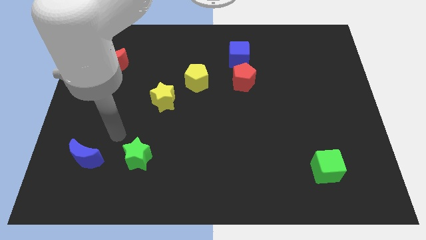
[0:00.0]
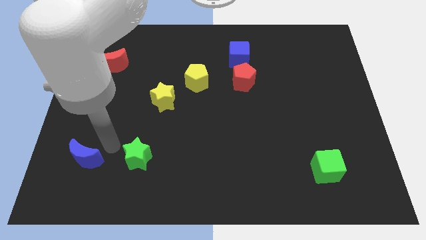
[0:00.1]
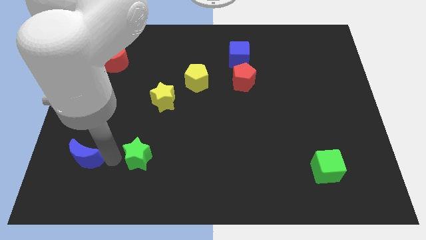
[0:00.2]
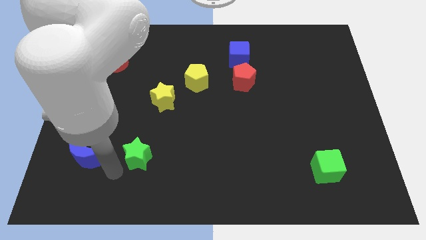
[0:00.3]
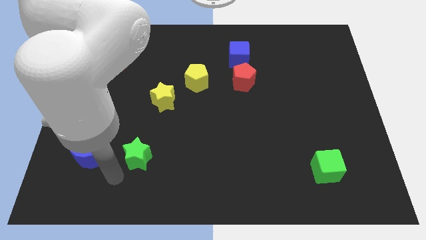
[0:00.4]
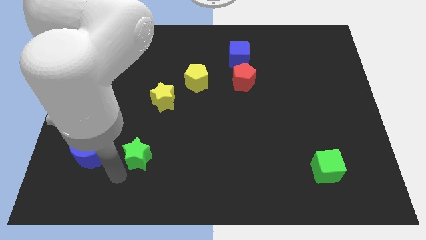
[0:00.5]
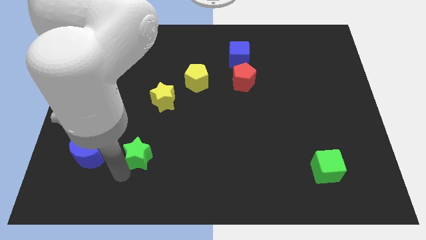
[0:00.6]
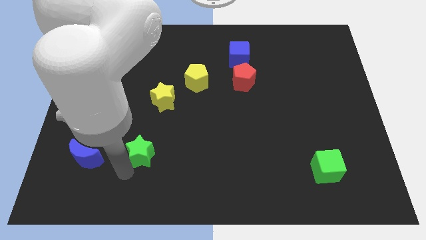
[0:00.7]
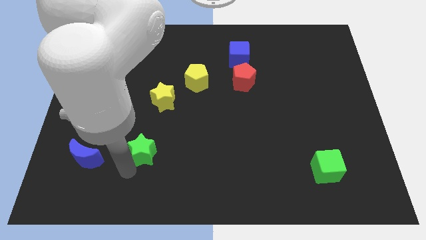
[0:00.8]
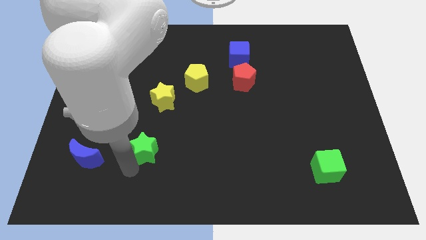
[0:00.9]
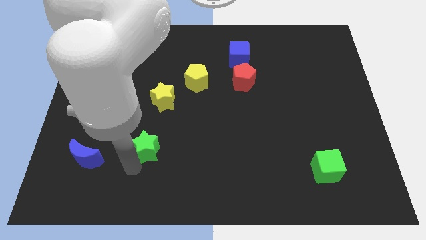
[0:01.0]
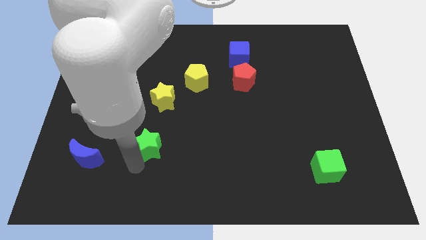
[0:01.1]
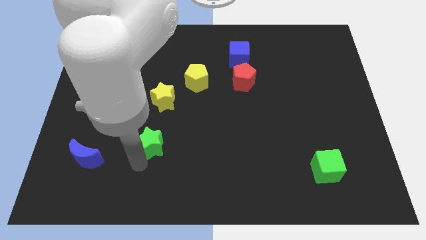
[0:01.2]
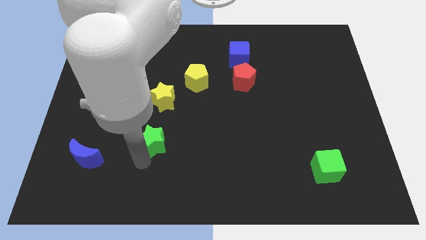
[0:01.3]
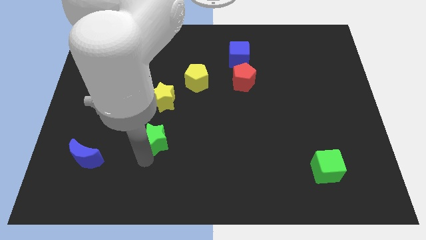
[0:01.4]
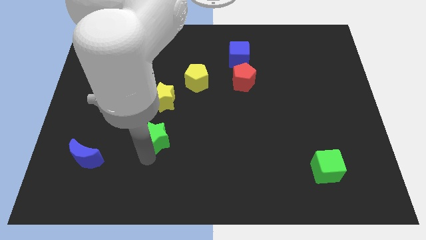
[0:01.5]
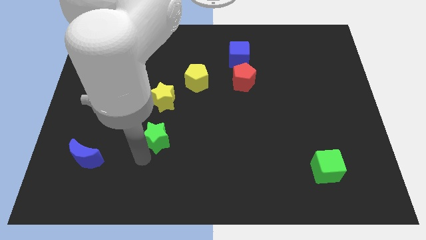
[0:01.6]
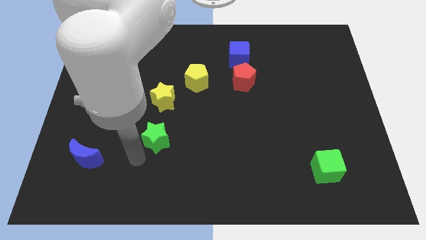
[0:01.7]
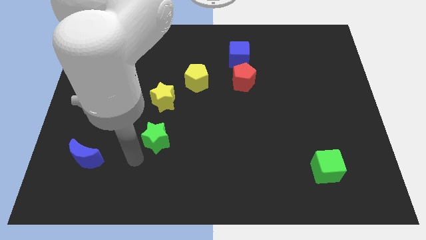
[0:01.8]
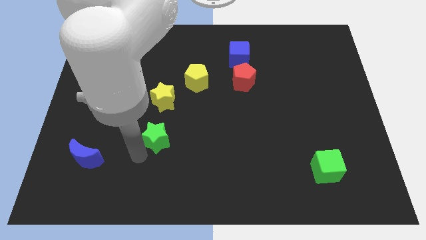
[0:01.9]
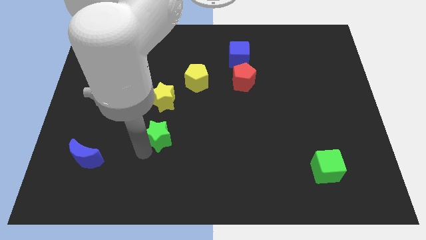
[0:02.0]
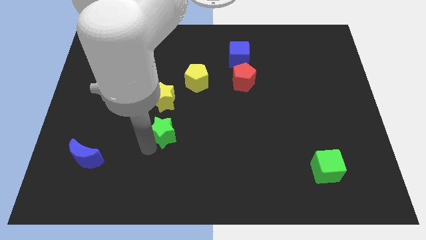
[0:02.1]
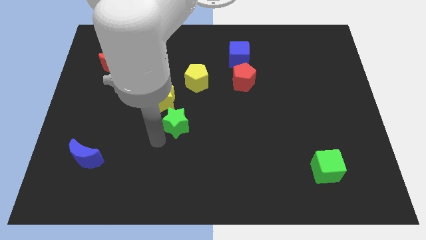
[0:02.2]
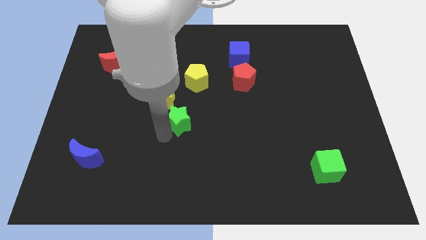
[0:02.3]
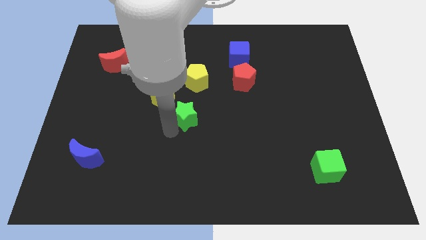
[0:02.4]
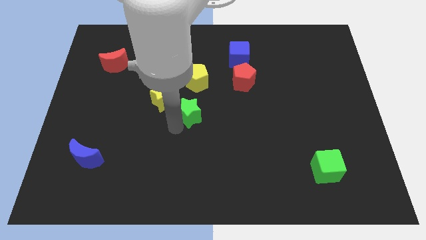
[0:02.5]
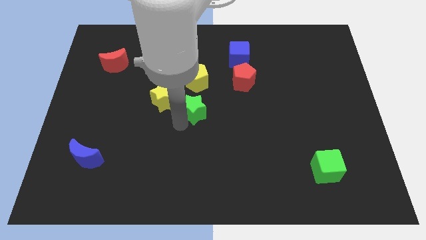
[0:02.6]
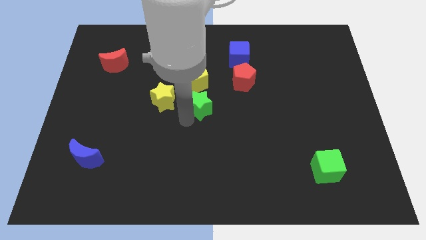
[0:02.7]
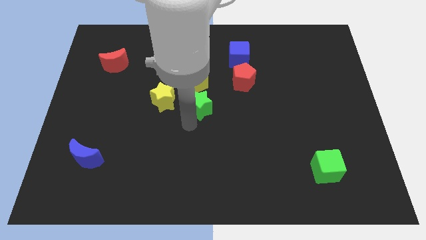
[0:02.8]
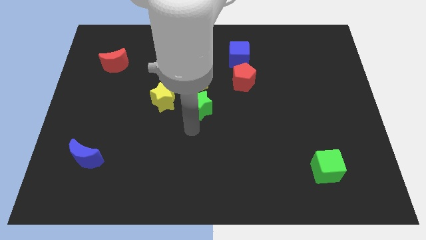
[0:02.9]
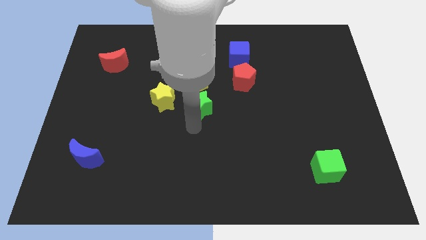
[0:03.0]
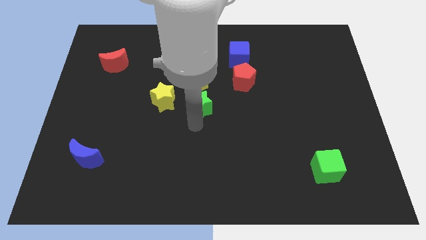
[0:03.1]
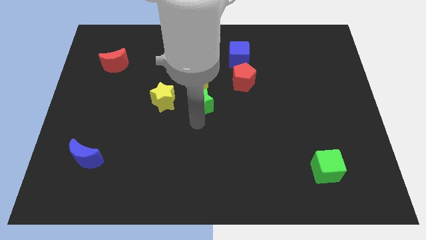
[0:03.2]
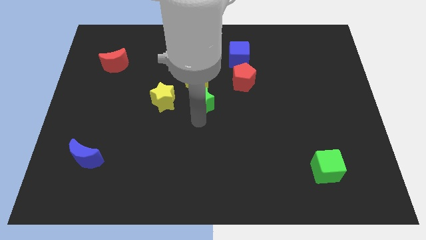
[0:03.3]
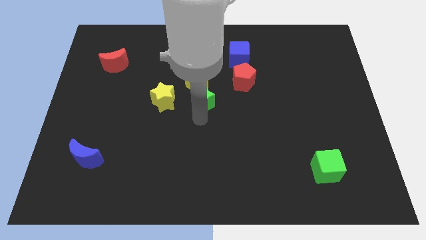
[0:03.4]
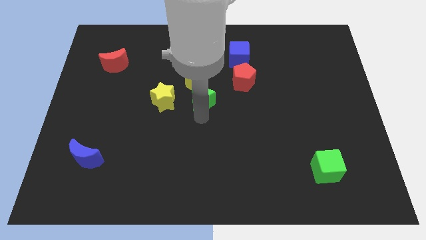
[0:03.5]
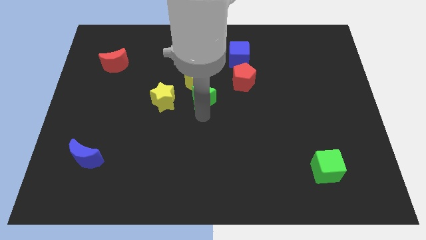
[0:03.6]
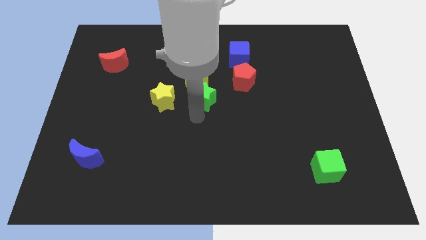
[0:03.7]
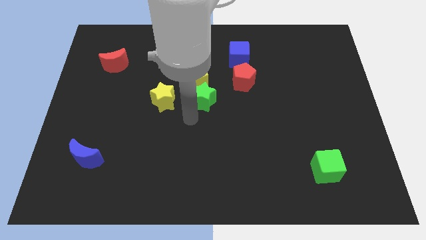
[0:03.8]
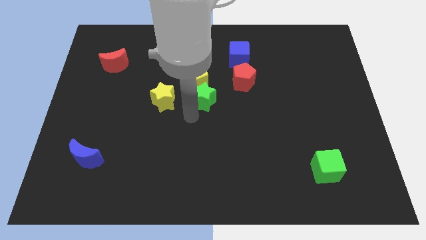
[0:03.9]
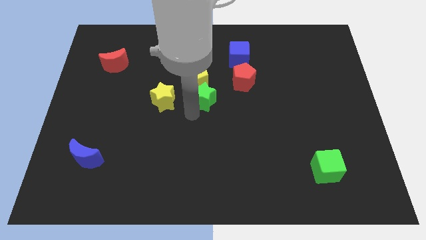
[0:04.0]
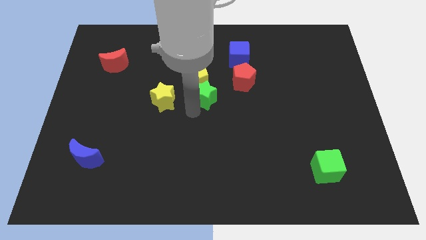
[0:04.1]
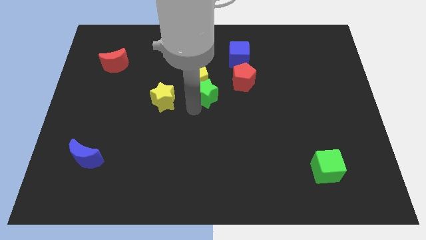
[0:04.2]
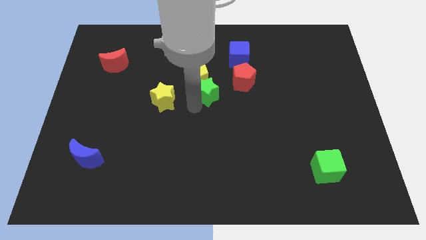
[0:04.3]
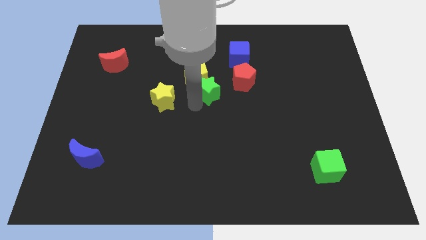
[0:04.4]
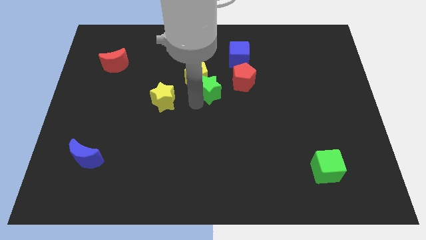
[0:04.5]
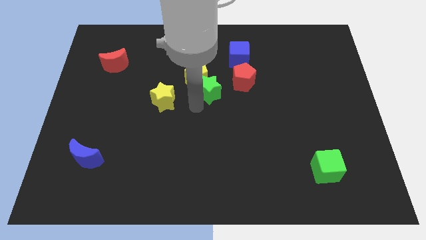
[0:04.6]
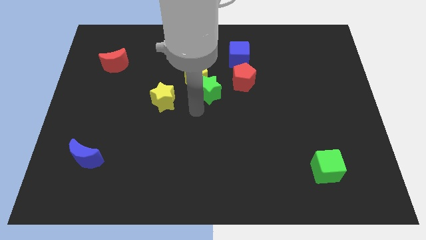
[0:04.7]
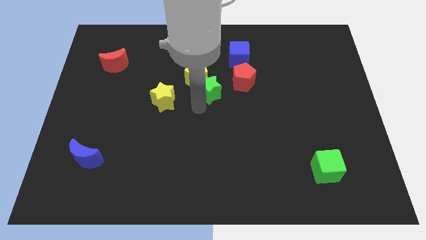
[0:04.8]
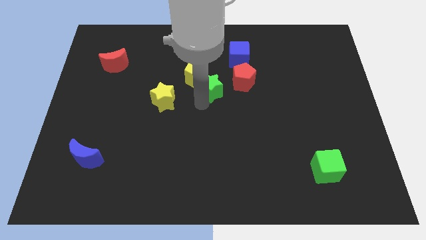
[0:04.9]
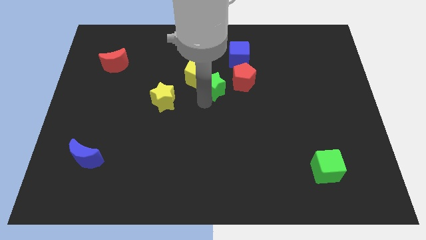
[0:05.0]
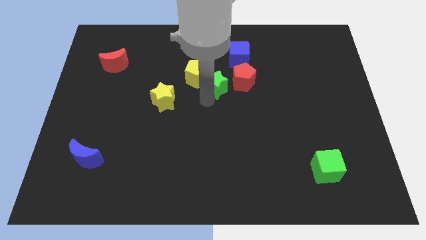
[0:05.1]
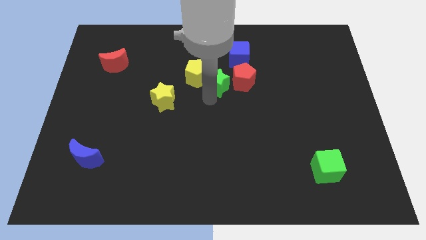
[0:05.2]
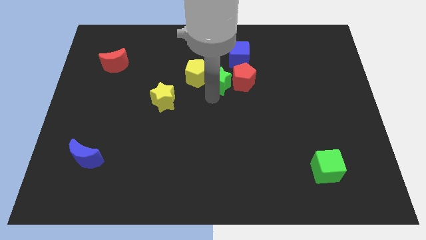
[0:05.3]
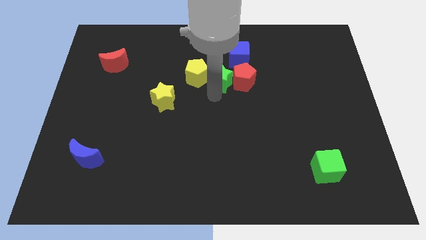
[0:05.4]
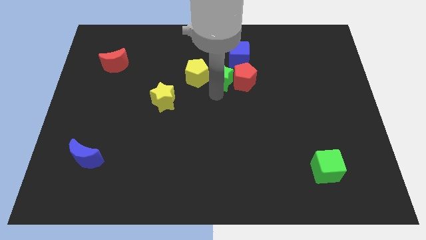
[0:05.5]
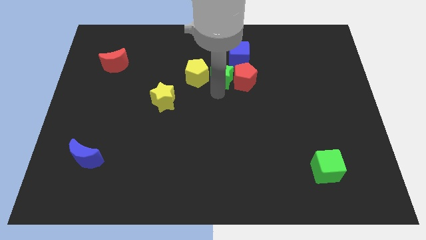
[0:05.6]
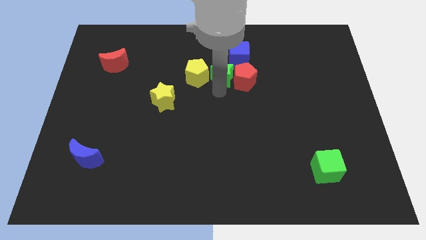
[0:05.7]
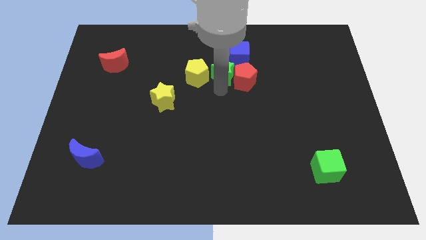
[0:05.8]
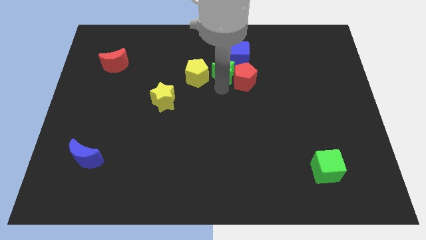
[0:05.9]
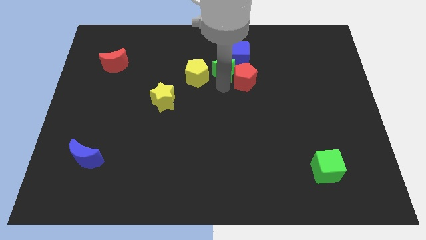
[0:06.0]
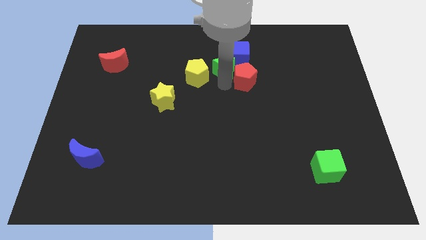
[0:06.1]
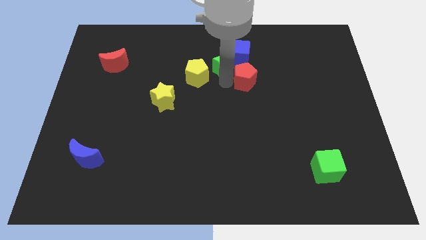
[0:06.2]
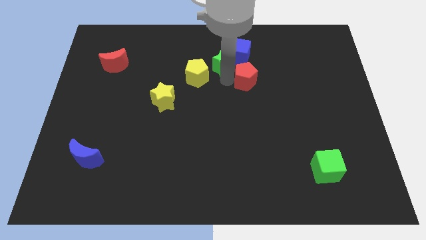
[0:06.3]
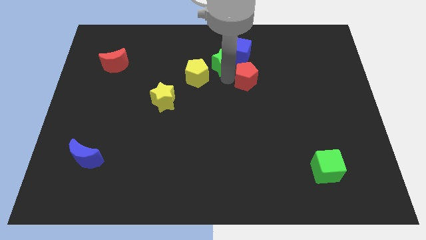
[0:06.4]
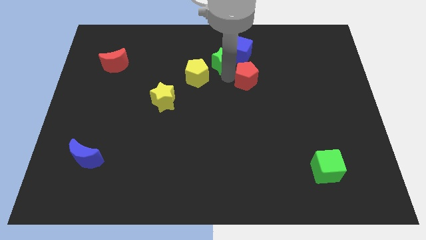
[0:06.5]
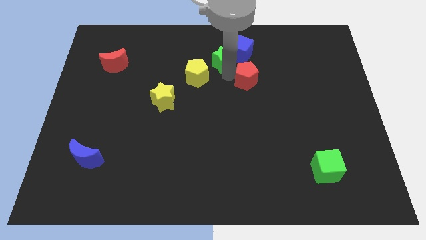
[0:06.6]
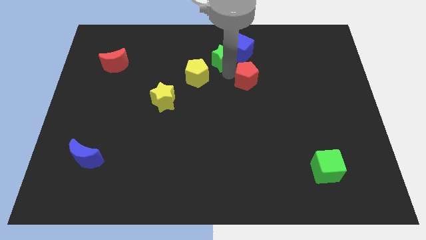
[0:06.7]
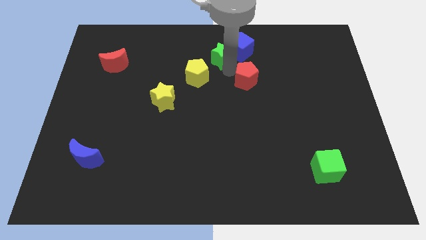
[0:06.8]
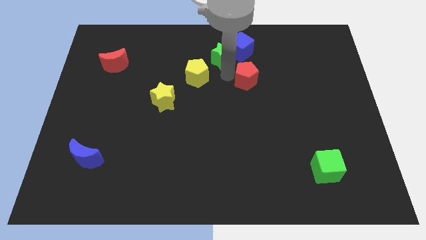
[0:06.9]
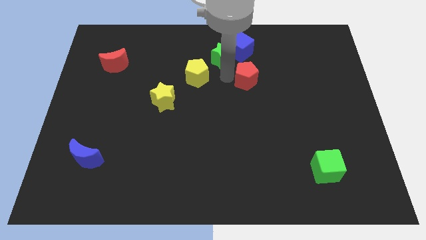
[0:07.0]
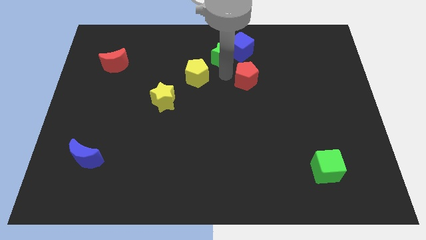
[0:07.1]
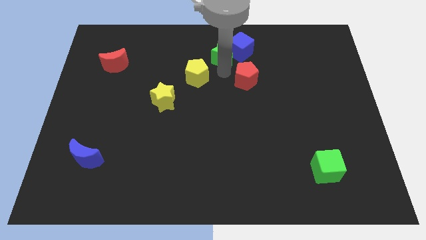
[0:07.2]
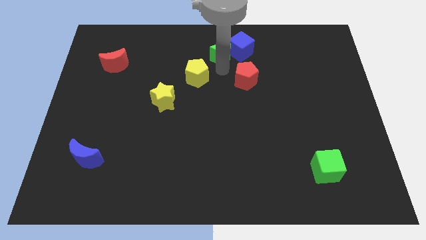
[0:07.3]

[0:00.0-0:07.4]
put the green star to the top
